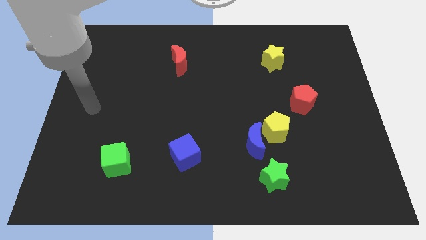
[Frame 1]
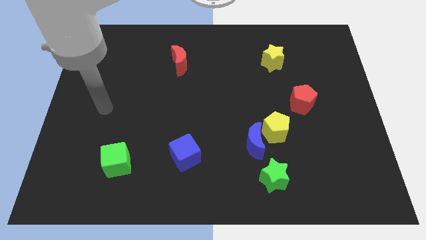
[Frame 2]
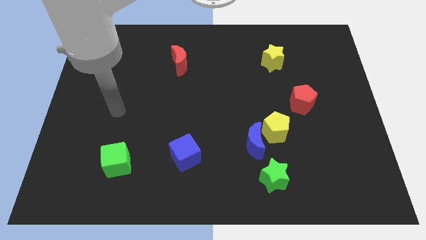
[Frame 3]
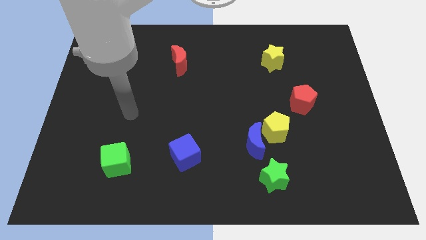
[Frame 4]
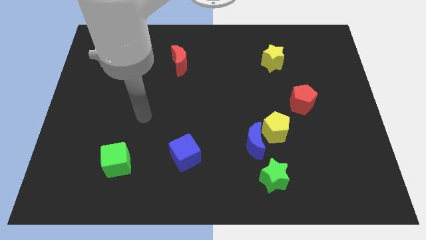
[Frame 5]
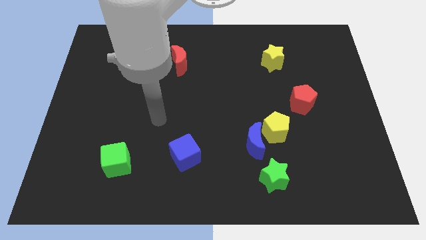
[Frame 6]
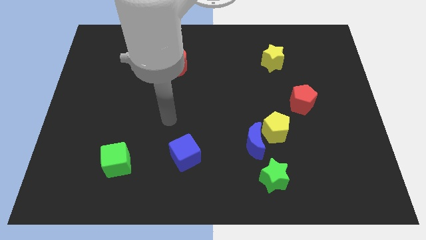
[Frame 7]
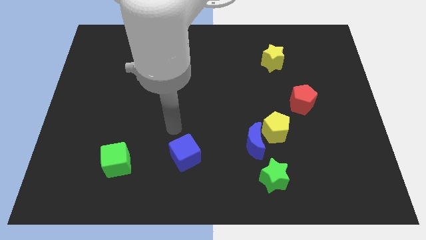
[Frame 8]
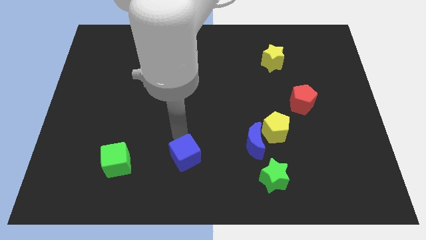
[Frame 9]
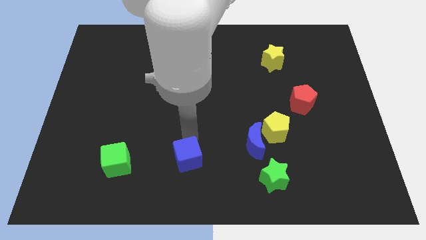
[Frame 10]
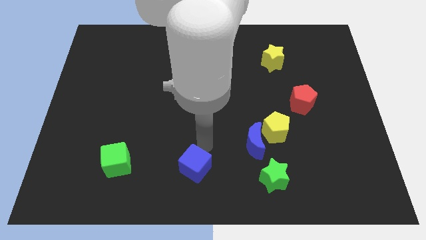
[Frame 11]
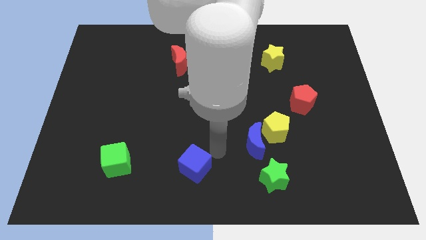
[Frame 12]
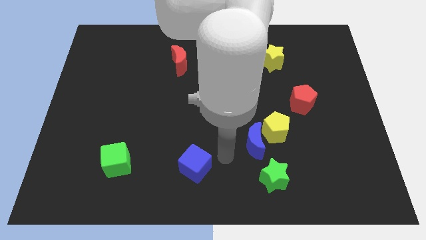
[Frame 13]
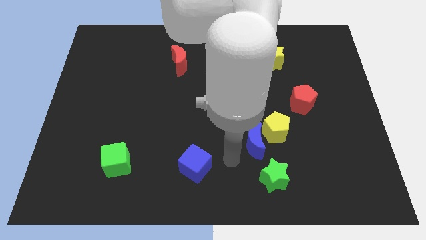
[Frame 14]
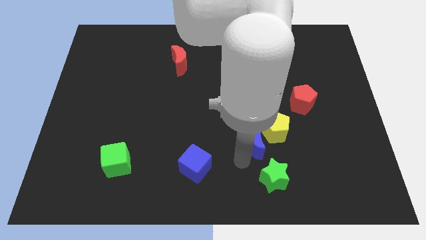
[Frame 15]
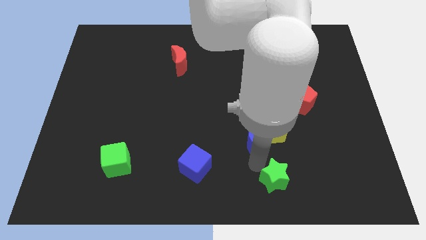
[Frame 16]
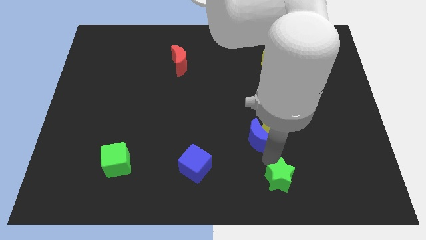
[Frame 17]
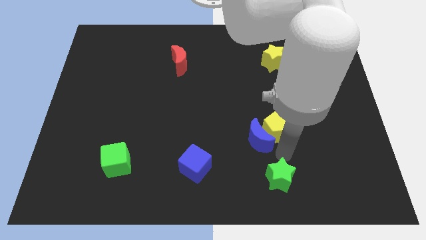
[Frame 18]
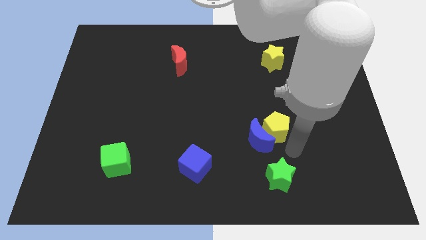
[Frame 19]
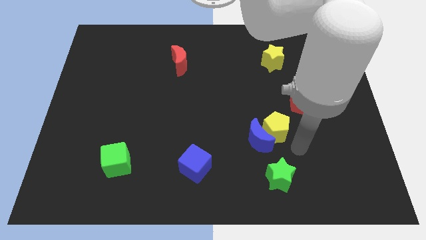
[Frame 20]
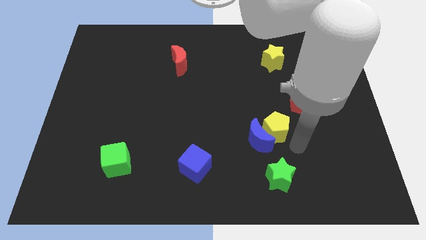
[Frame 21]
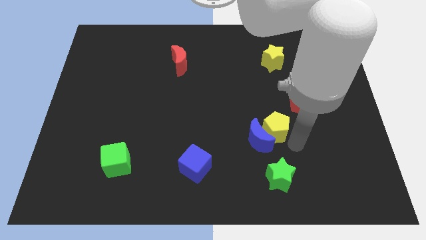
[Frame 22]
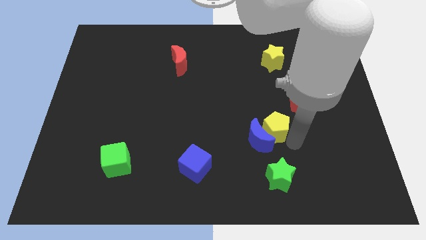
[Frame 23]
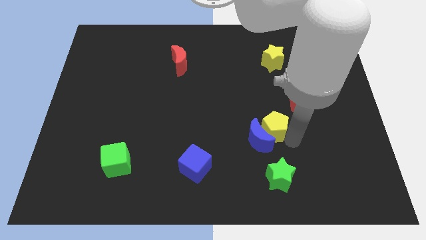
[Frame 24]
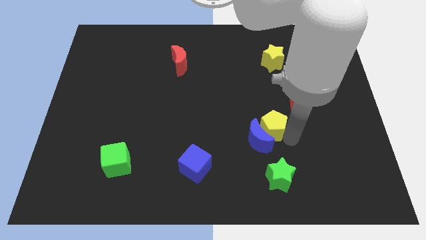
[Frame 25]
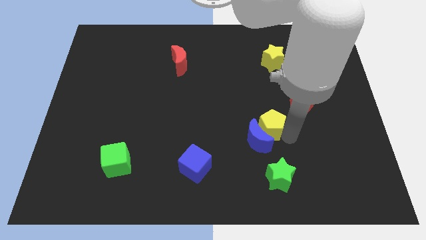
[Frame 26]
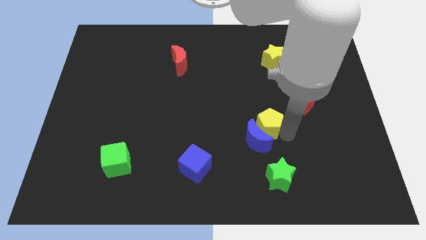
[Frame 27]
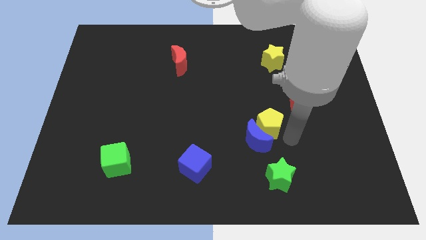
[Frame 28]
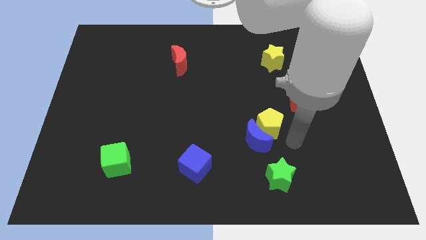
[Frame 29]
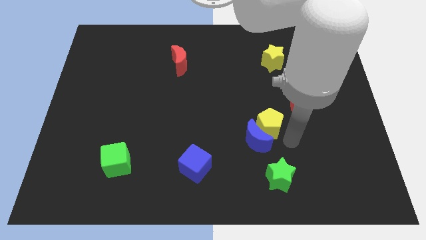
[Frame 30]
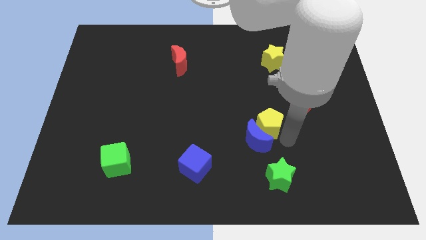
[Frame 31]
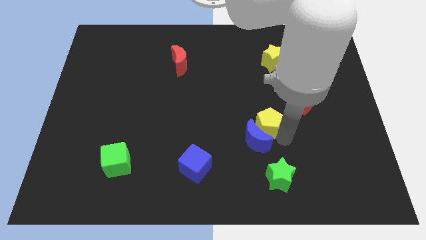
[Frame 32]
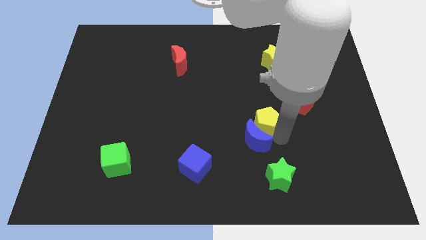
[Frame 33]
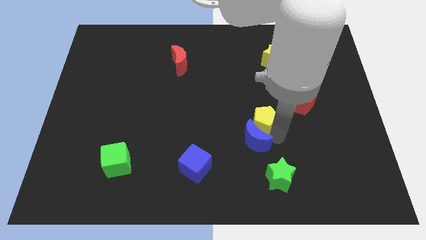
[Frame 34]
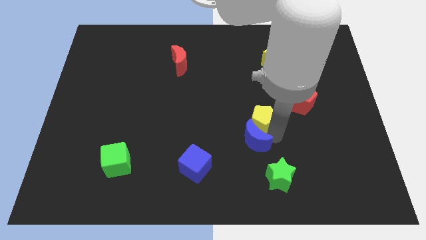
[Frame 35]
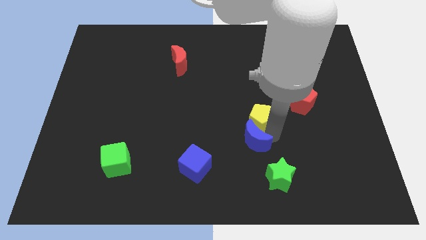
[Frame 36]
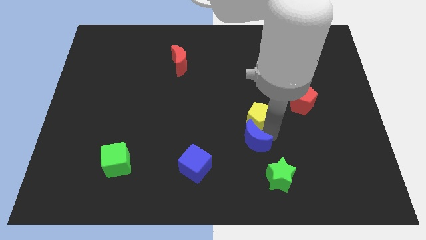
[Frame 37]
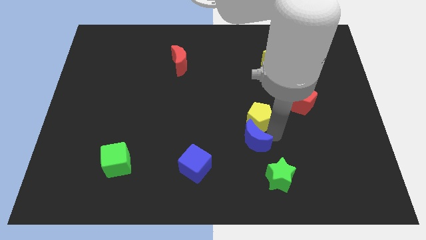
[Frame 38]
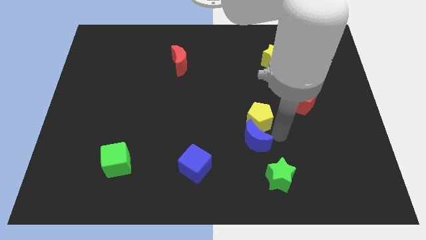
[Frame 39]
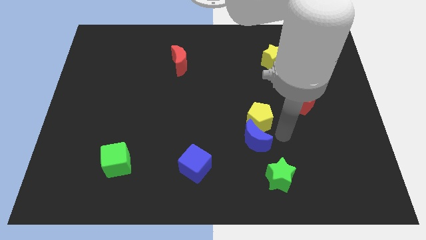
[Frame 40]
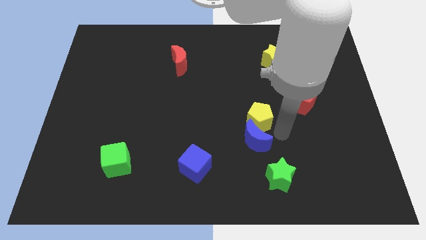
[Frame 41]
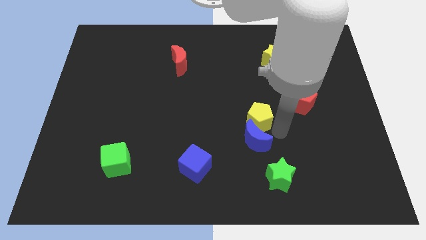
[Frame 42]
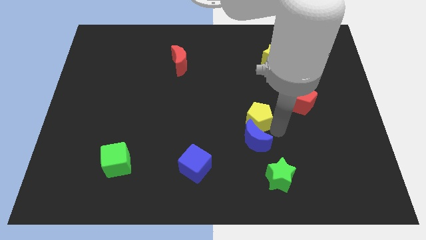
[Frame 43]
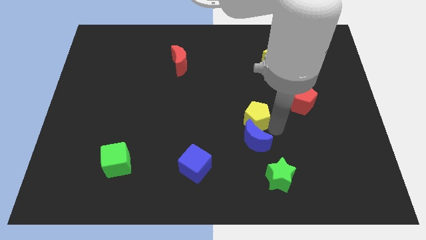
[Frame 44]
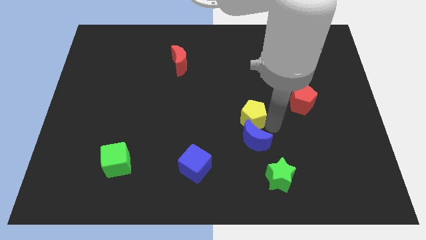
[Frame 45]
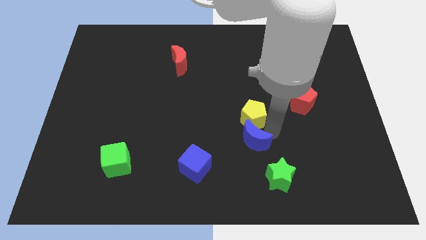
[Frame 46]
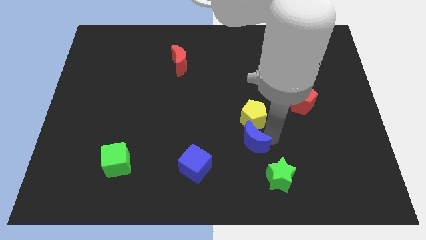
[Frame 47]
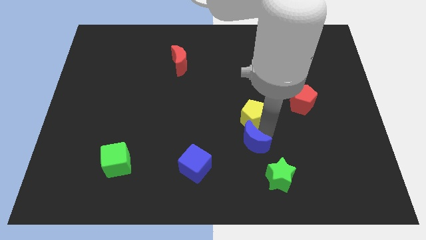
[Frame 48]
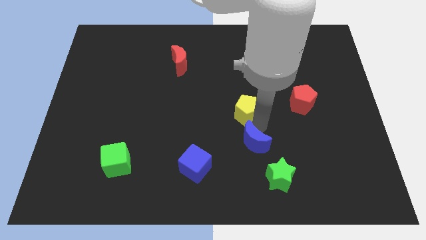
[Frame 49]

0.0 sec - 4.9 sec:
move the yellow pentagon a little upwards and to the left diagonally

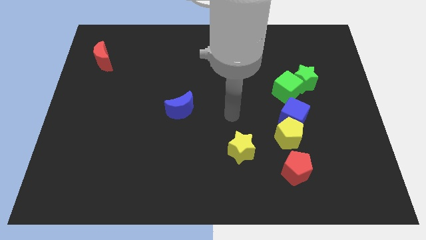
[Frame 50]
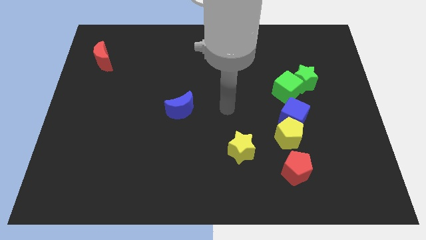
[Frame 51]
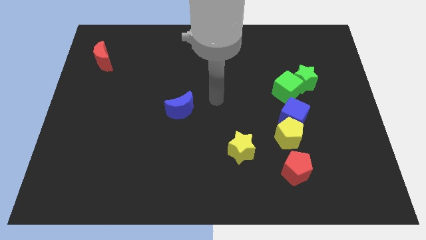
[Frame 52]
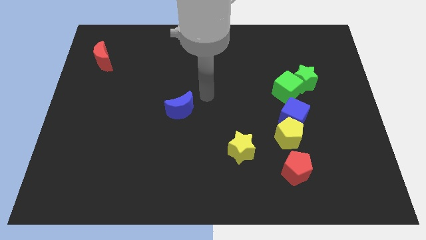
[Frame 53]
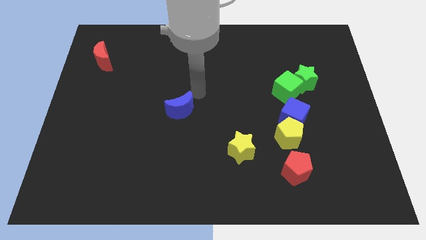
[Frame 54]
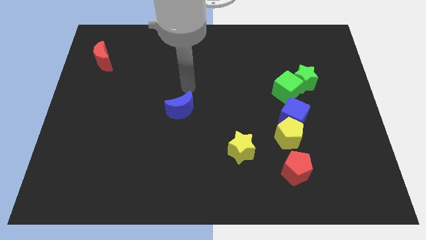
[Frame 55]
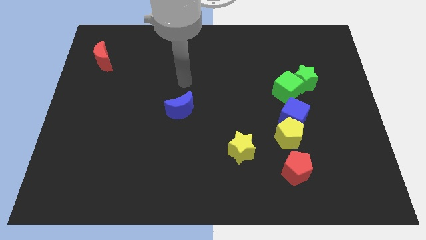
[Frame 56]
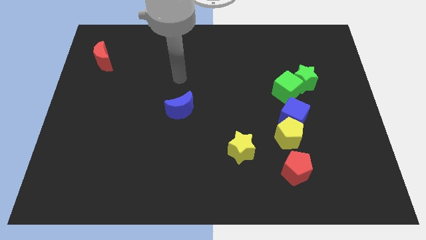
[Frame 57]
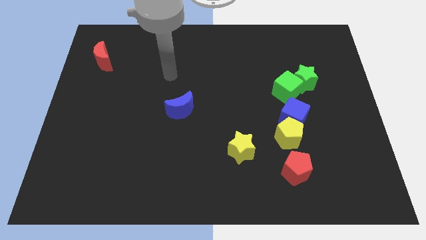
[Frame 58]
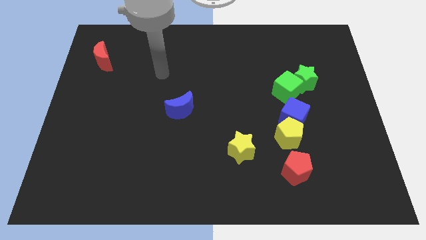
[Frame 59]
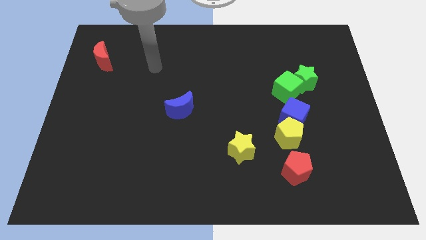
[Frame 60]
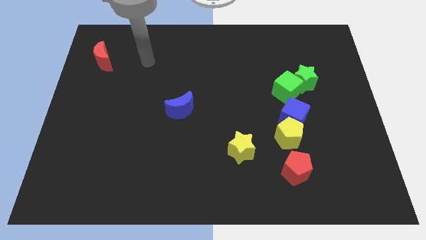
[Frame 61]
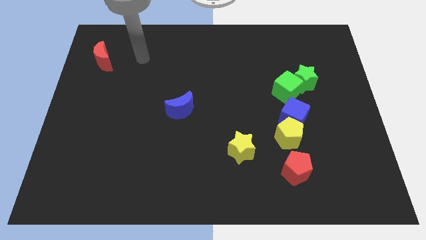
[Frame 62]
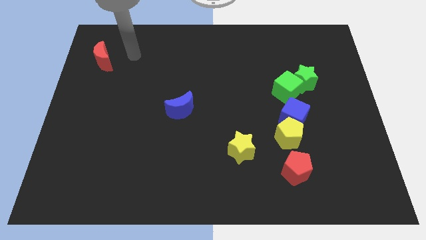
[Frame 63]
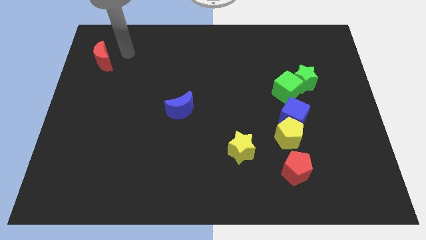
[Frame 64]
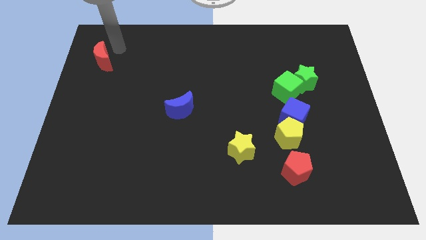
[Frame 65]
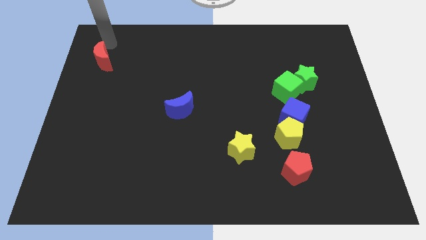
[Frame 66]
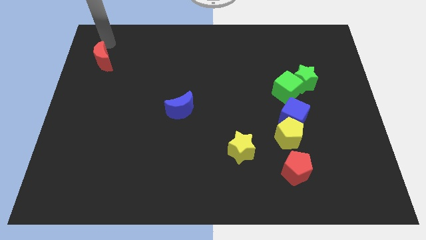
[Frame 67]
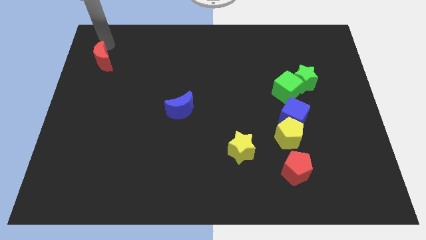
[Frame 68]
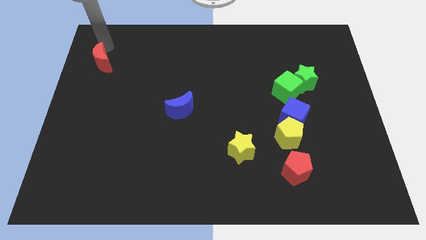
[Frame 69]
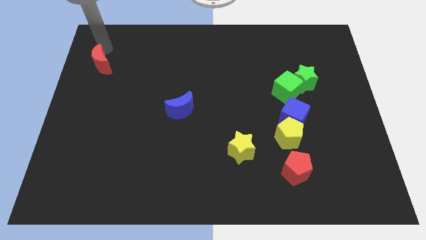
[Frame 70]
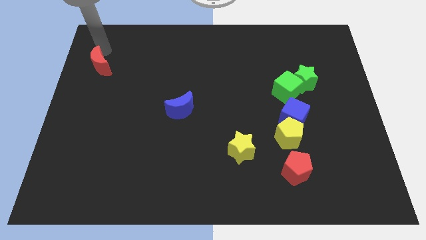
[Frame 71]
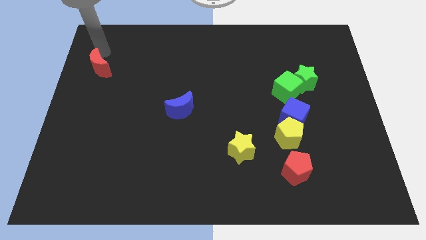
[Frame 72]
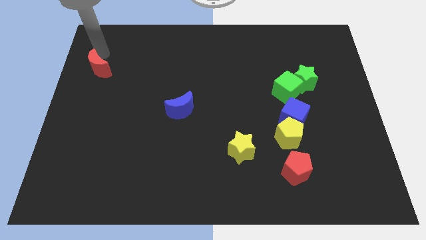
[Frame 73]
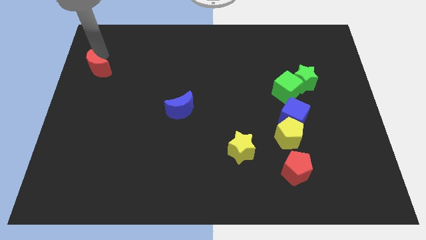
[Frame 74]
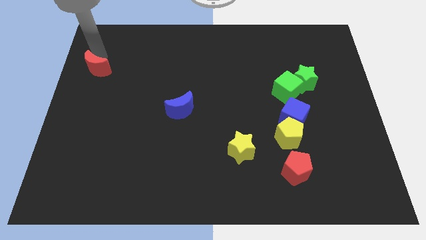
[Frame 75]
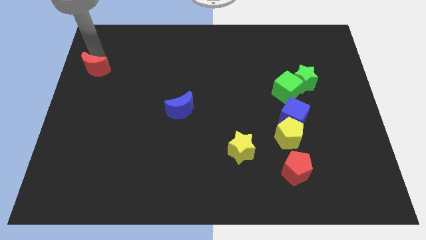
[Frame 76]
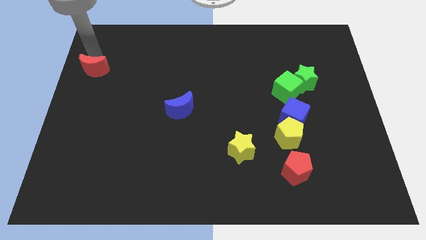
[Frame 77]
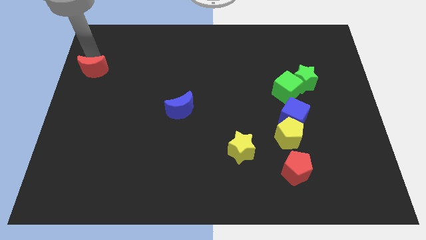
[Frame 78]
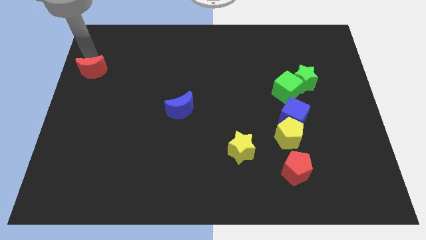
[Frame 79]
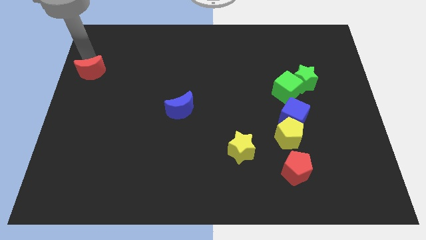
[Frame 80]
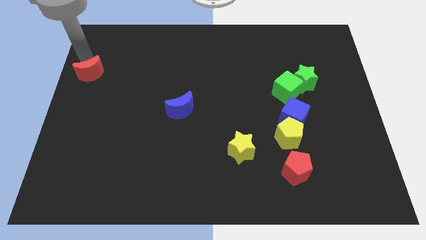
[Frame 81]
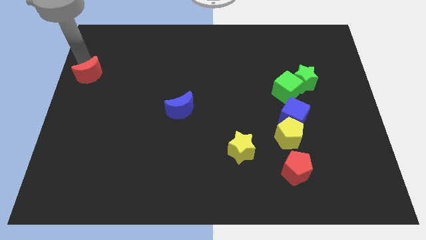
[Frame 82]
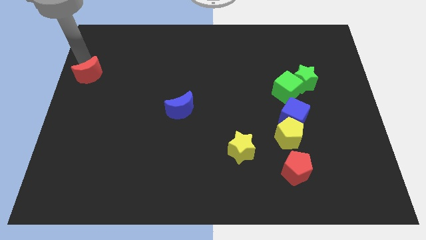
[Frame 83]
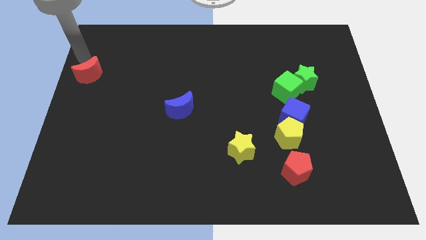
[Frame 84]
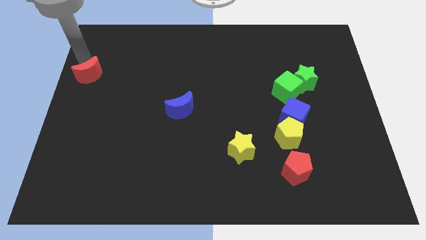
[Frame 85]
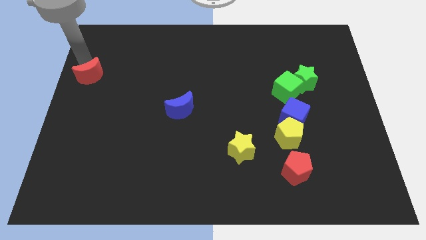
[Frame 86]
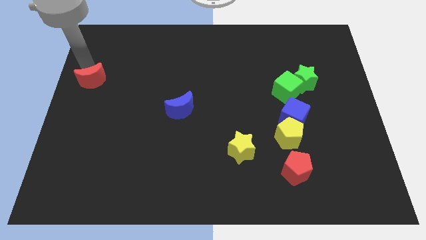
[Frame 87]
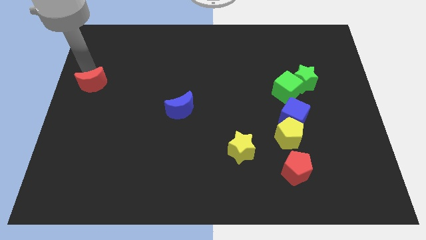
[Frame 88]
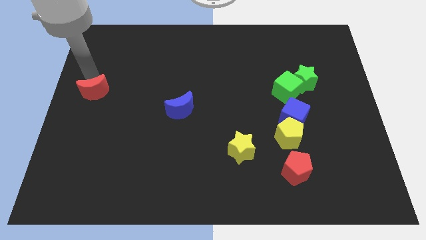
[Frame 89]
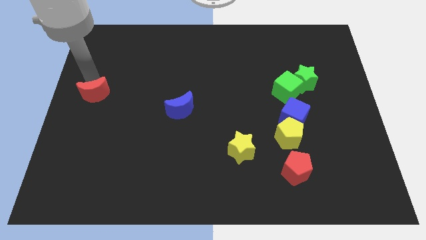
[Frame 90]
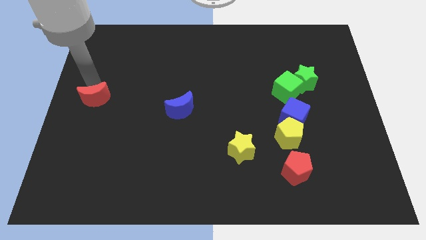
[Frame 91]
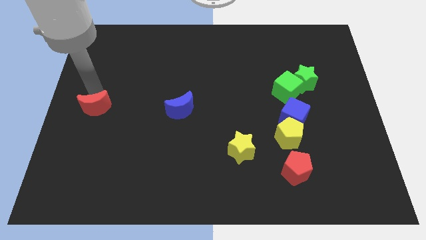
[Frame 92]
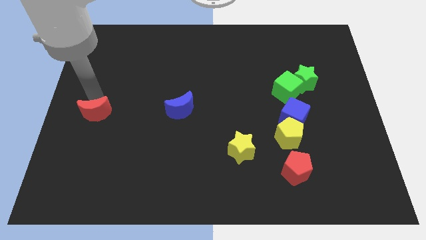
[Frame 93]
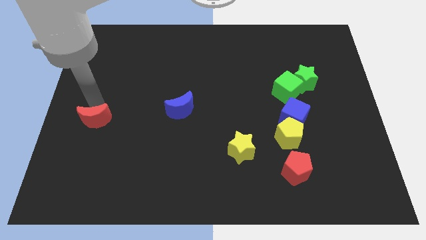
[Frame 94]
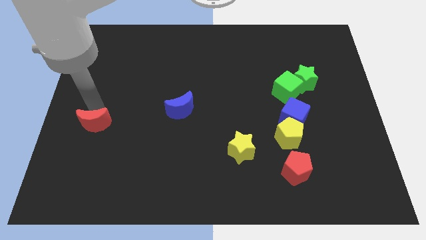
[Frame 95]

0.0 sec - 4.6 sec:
slide the red moon down
